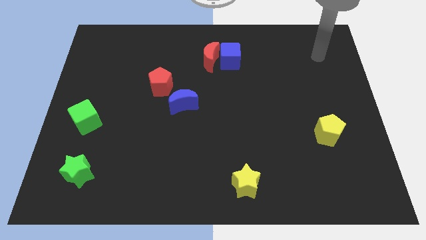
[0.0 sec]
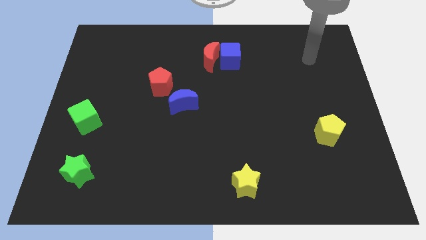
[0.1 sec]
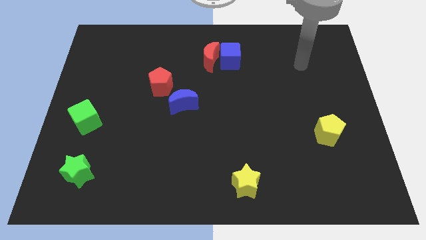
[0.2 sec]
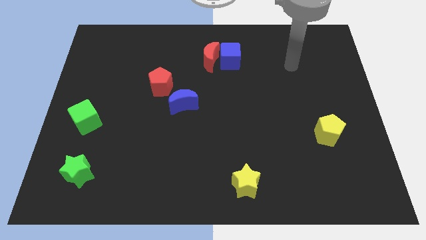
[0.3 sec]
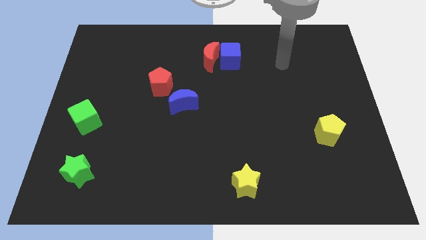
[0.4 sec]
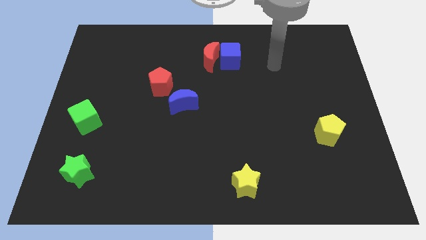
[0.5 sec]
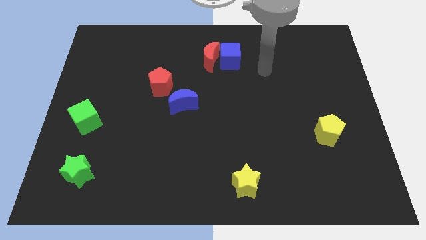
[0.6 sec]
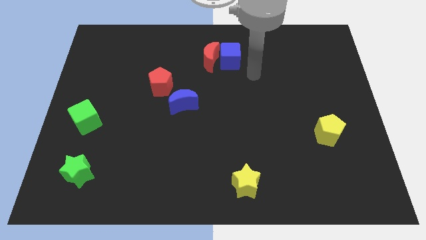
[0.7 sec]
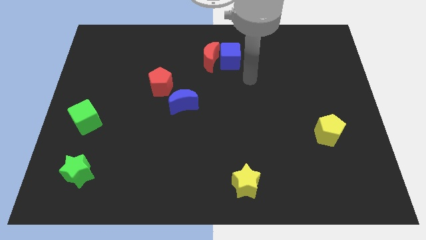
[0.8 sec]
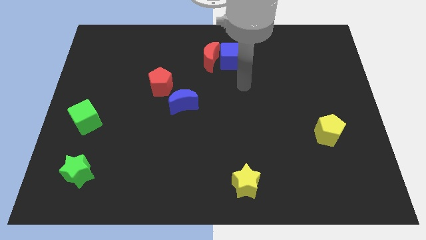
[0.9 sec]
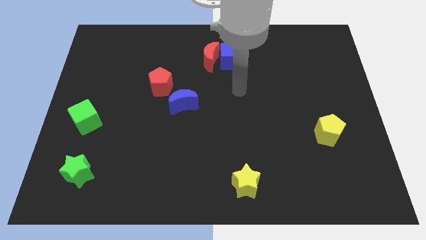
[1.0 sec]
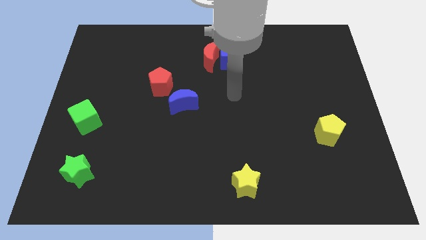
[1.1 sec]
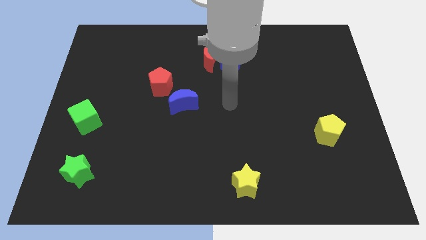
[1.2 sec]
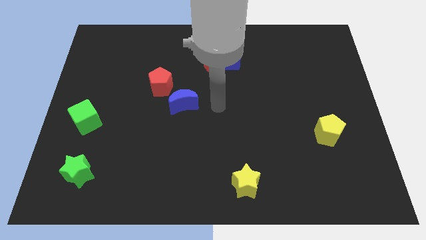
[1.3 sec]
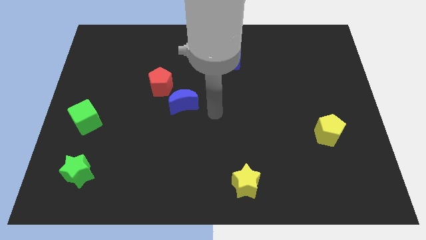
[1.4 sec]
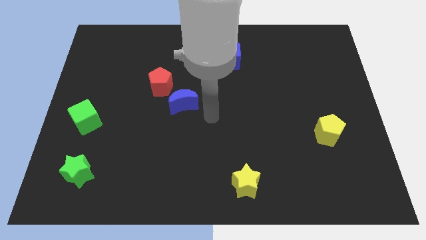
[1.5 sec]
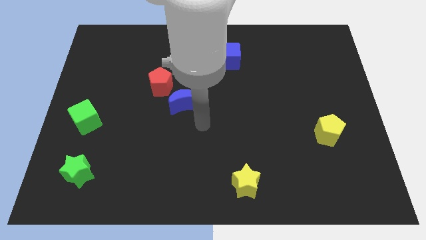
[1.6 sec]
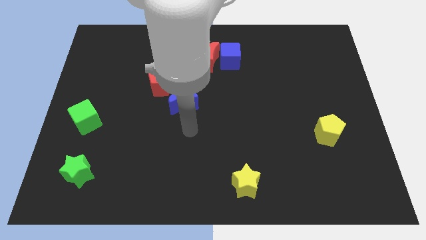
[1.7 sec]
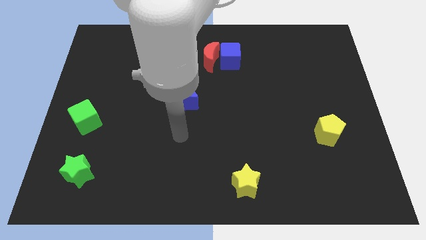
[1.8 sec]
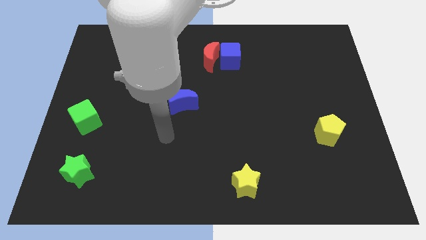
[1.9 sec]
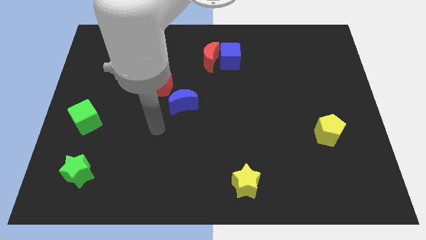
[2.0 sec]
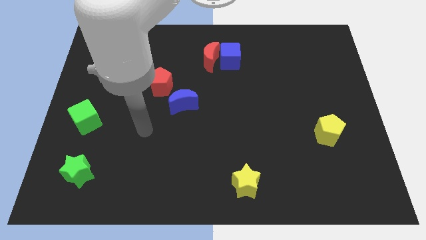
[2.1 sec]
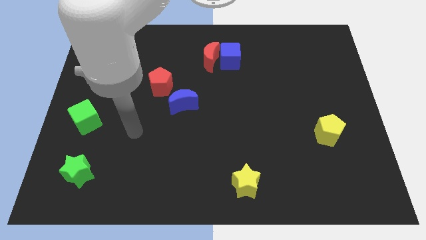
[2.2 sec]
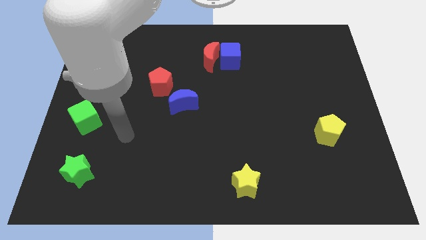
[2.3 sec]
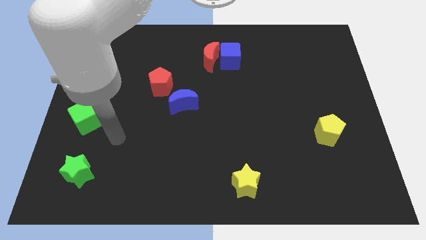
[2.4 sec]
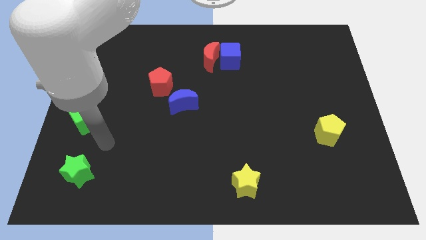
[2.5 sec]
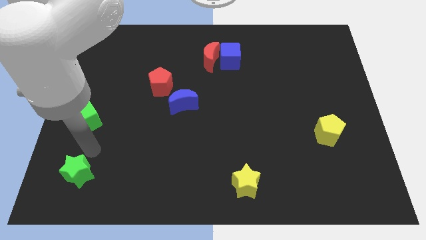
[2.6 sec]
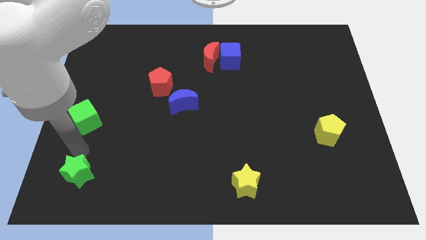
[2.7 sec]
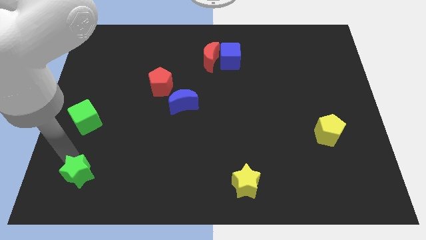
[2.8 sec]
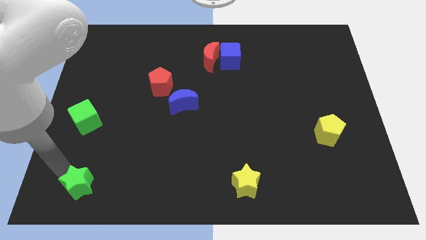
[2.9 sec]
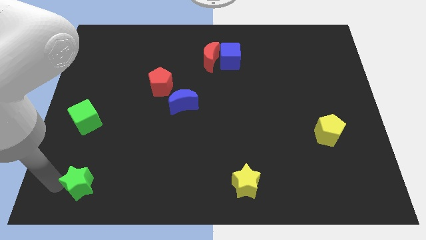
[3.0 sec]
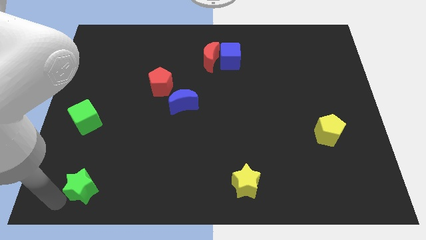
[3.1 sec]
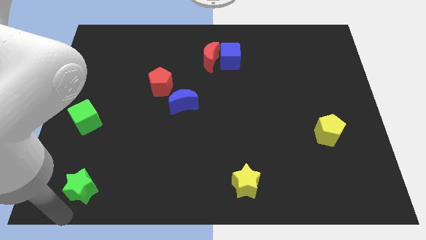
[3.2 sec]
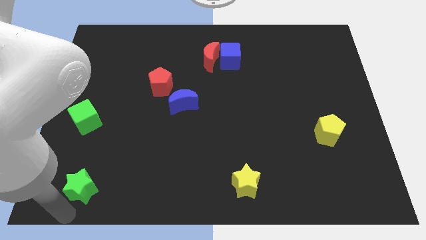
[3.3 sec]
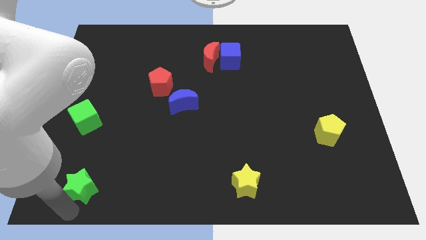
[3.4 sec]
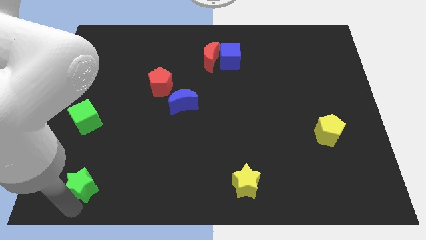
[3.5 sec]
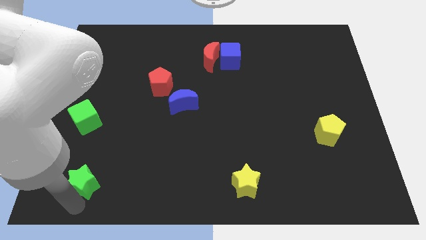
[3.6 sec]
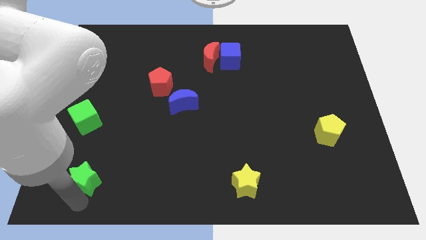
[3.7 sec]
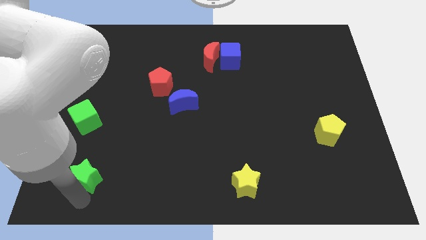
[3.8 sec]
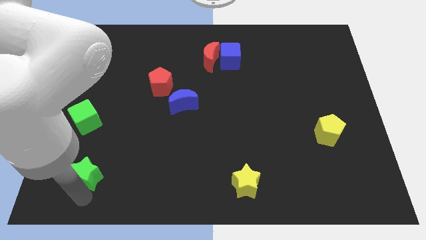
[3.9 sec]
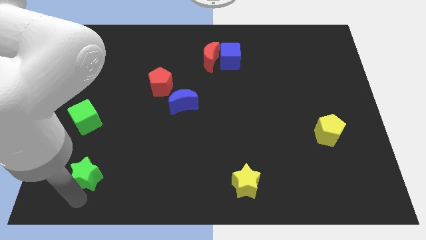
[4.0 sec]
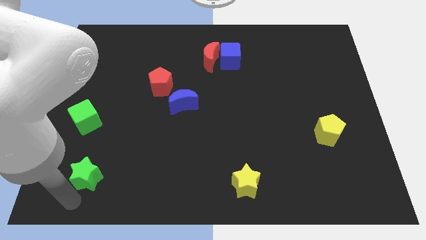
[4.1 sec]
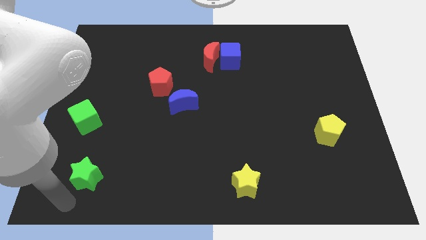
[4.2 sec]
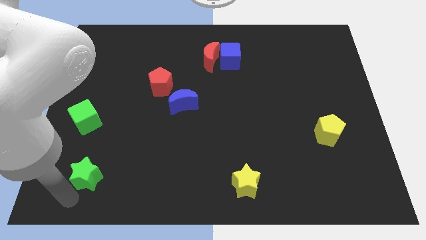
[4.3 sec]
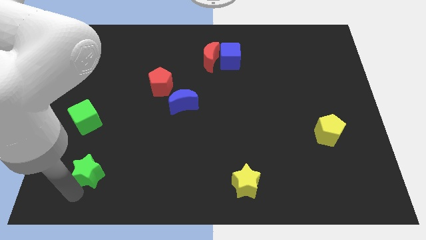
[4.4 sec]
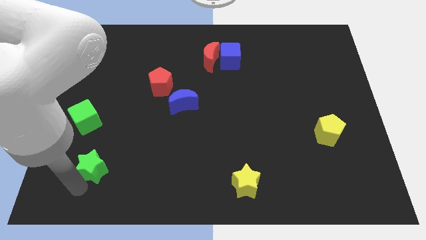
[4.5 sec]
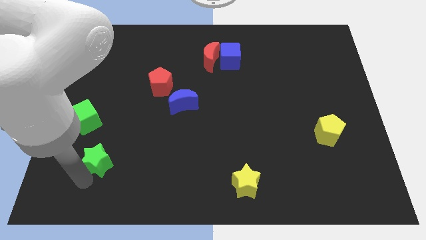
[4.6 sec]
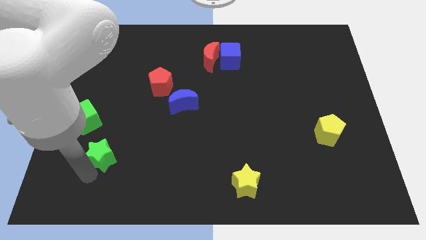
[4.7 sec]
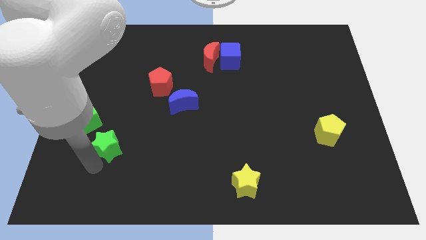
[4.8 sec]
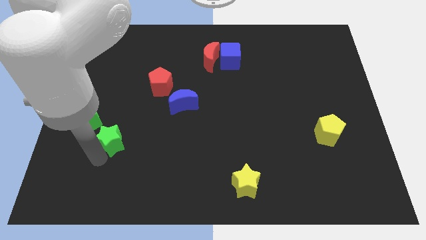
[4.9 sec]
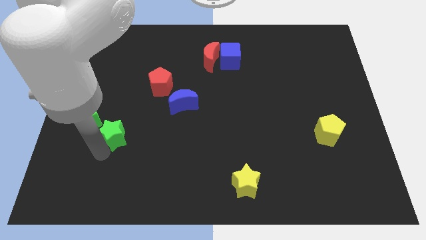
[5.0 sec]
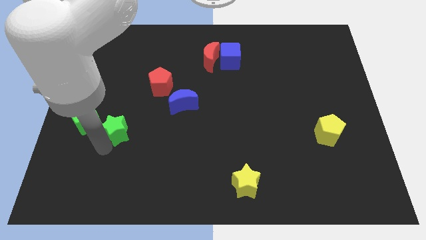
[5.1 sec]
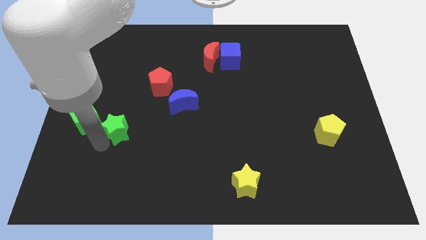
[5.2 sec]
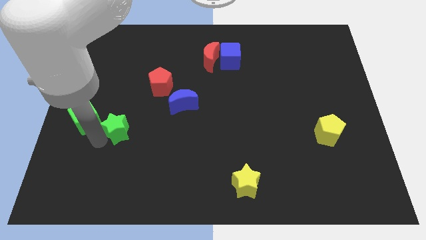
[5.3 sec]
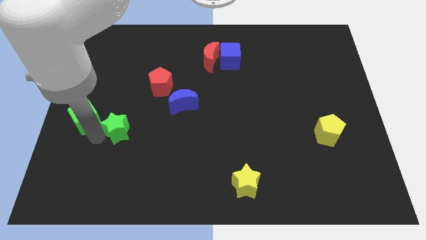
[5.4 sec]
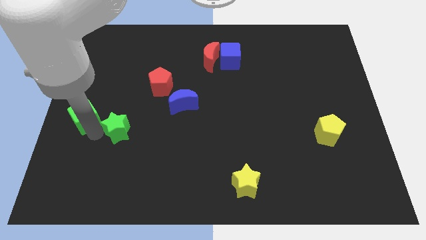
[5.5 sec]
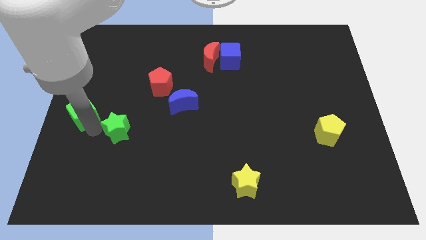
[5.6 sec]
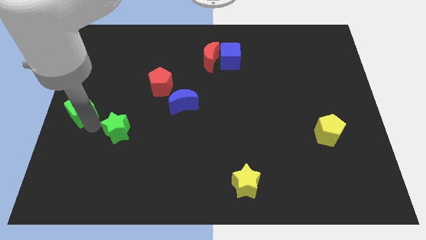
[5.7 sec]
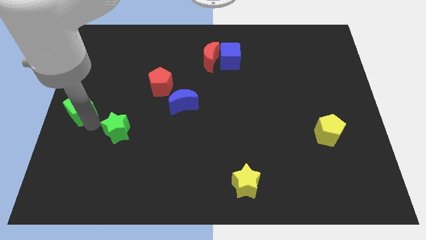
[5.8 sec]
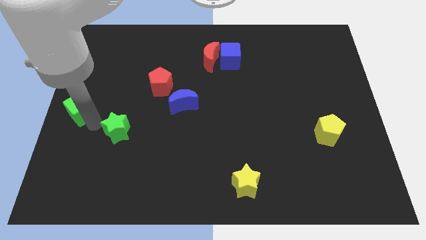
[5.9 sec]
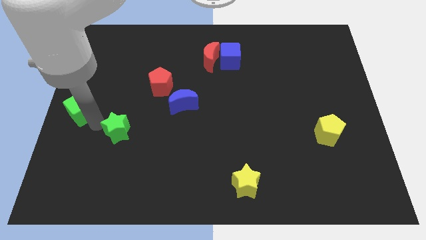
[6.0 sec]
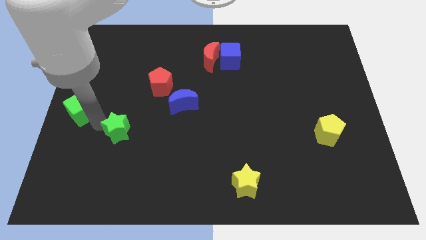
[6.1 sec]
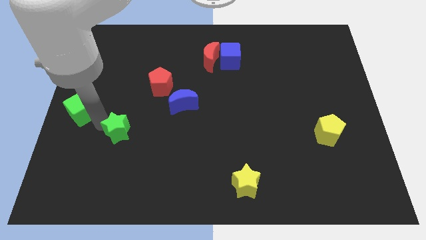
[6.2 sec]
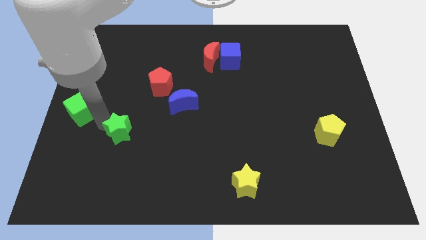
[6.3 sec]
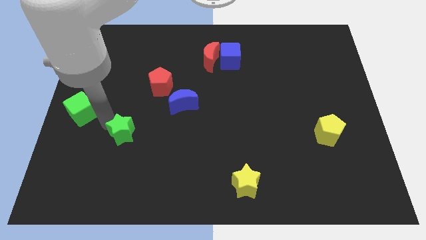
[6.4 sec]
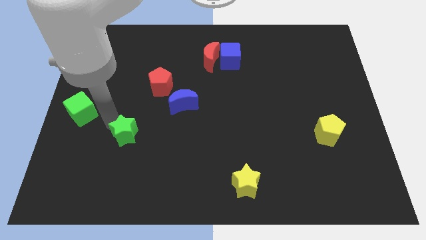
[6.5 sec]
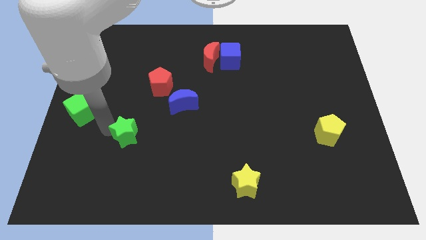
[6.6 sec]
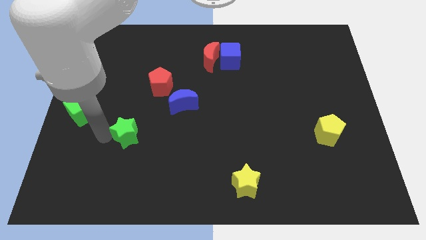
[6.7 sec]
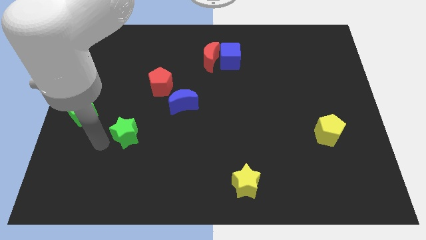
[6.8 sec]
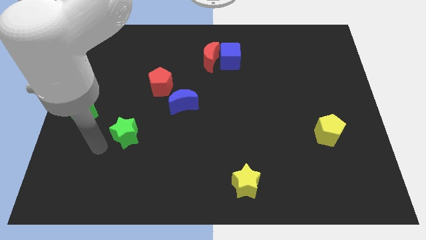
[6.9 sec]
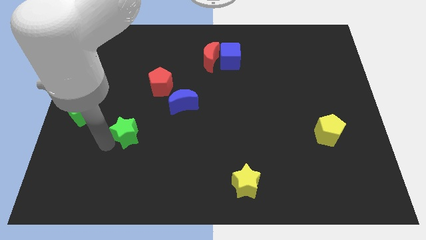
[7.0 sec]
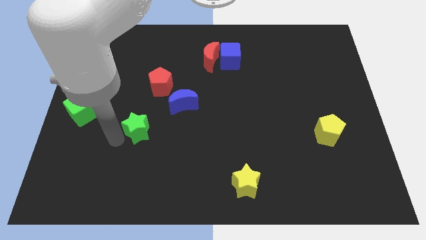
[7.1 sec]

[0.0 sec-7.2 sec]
put the green star below the red pentagon
